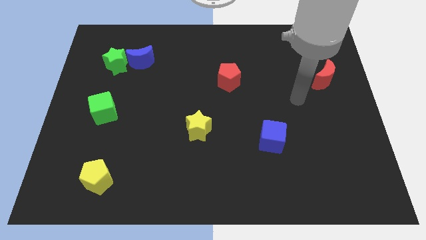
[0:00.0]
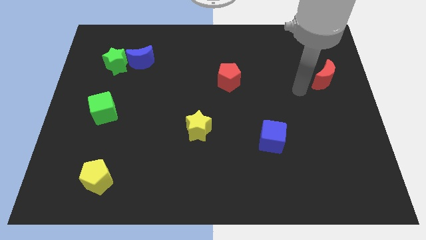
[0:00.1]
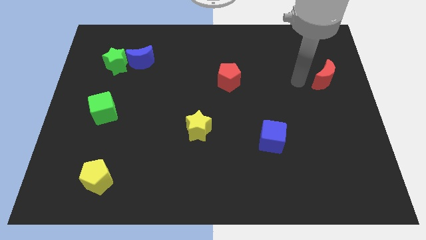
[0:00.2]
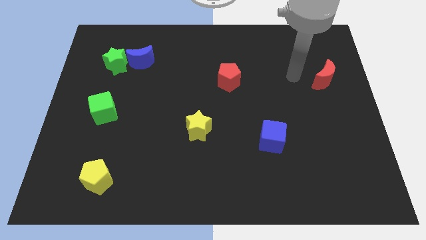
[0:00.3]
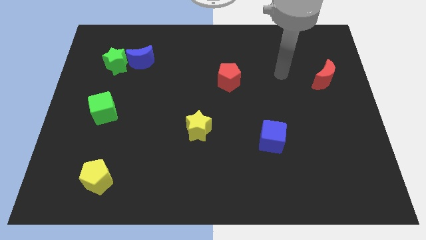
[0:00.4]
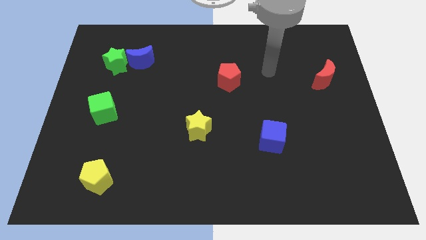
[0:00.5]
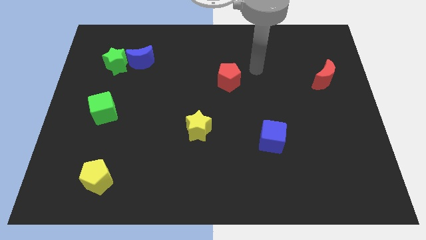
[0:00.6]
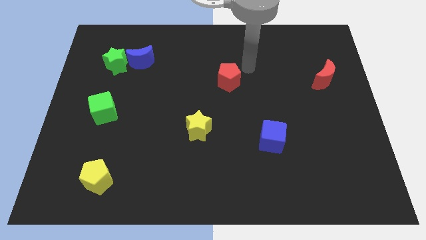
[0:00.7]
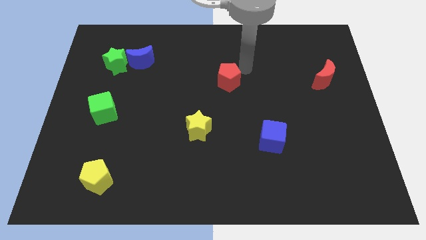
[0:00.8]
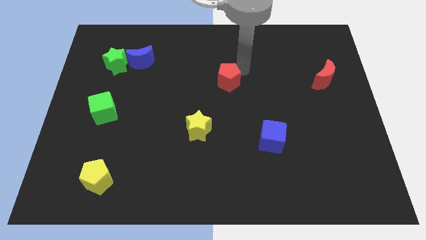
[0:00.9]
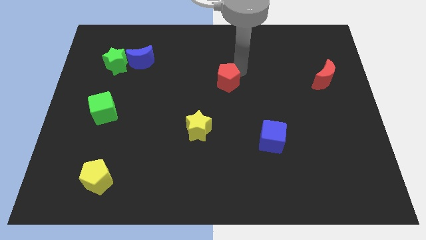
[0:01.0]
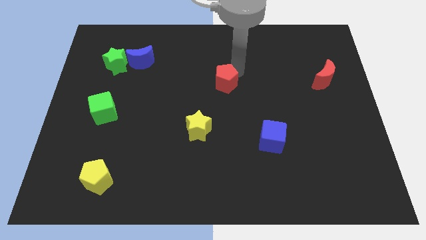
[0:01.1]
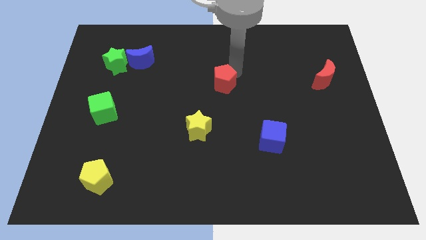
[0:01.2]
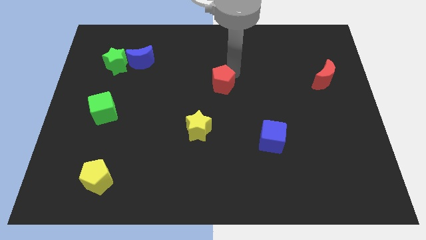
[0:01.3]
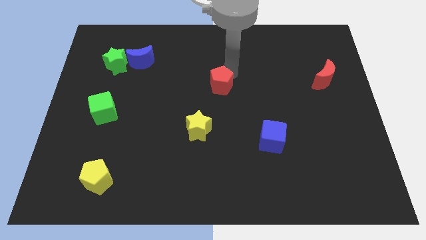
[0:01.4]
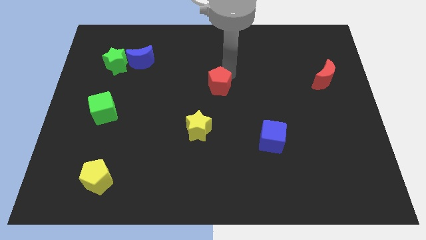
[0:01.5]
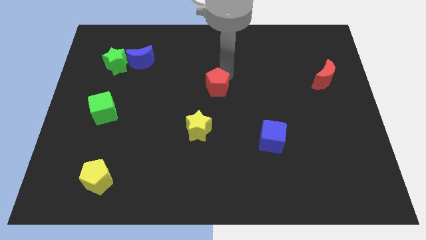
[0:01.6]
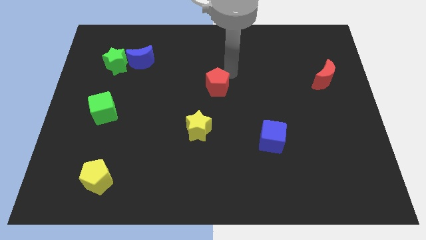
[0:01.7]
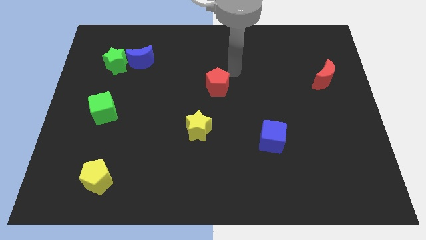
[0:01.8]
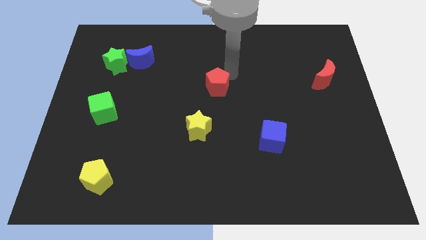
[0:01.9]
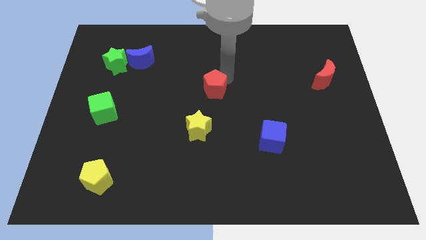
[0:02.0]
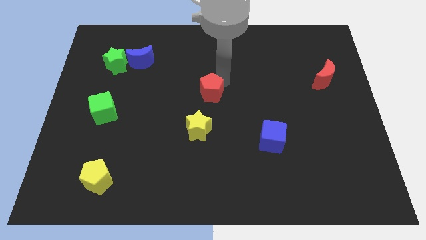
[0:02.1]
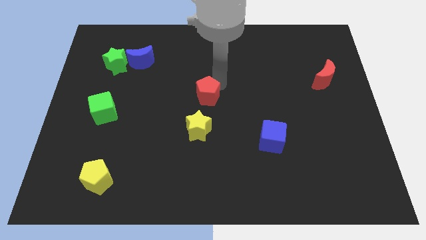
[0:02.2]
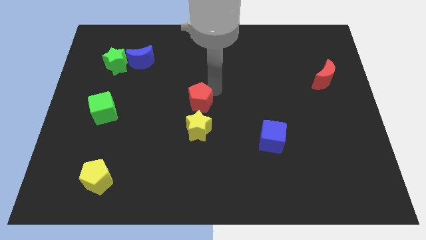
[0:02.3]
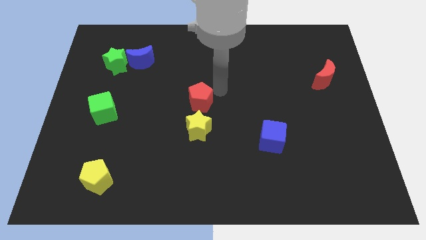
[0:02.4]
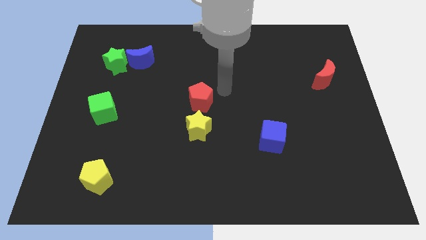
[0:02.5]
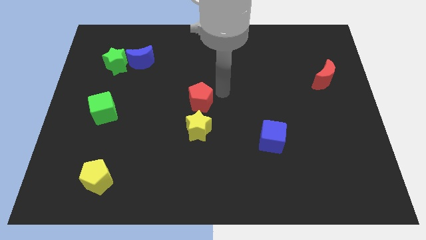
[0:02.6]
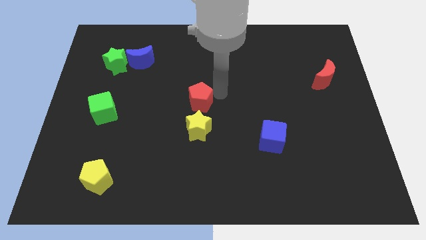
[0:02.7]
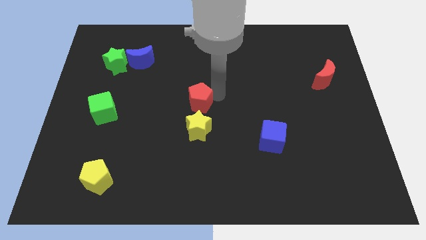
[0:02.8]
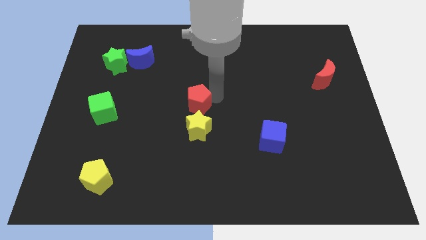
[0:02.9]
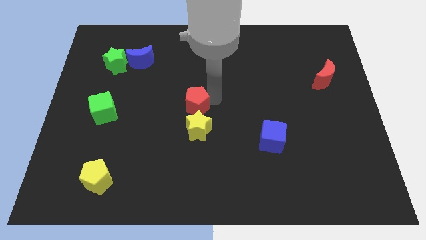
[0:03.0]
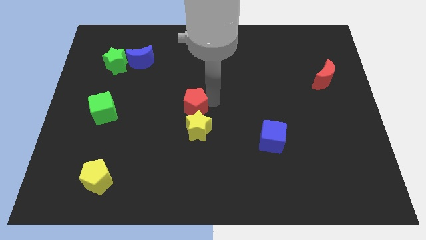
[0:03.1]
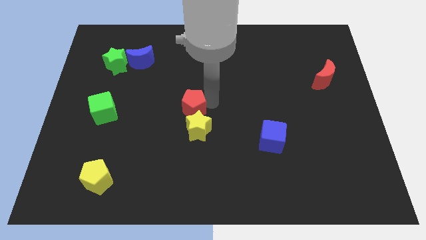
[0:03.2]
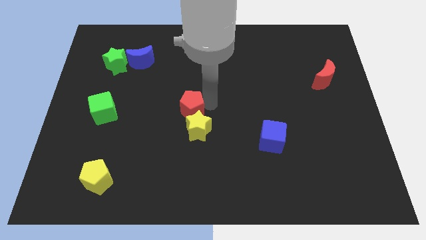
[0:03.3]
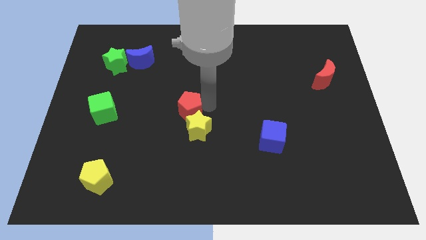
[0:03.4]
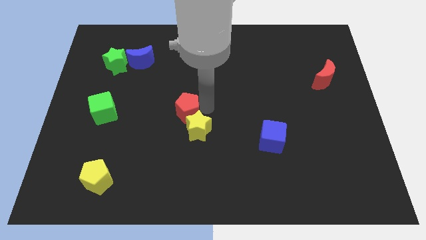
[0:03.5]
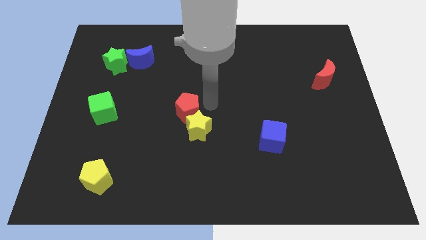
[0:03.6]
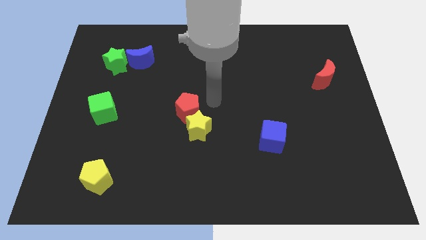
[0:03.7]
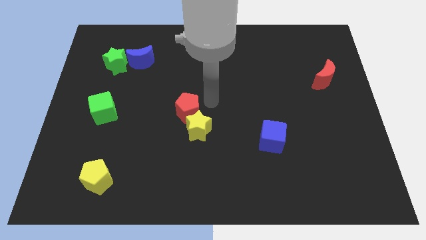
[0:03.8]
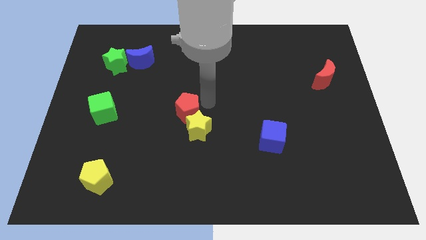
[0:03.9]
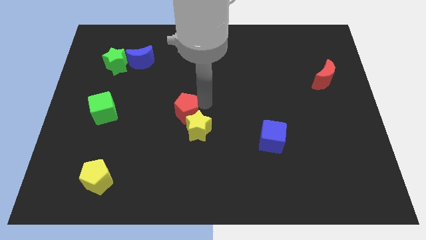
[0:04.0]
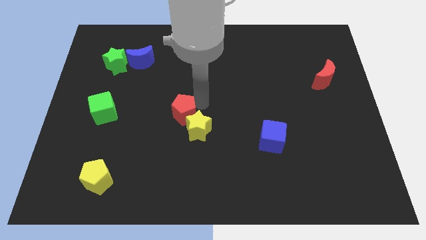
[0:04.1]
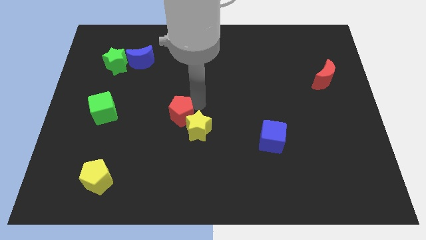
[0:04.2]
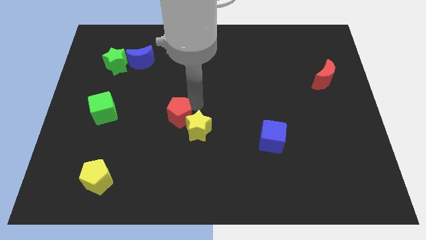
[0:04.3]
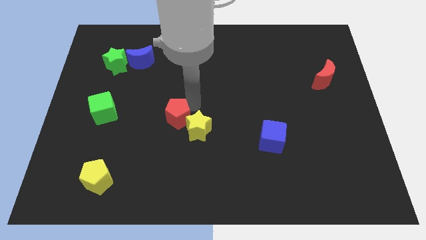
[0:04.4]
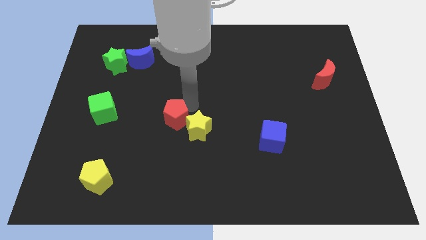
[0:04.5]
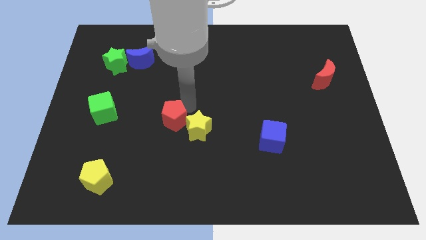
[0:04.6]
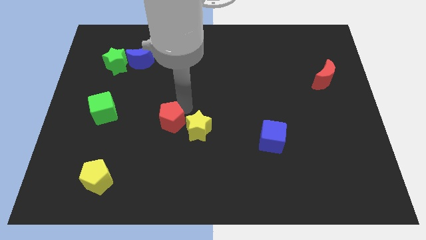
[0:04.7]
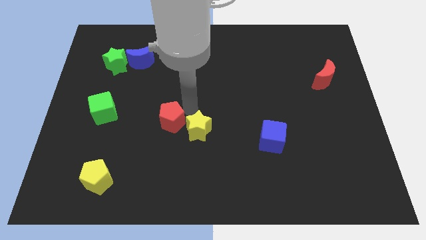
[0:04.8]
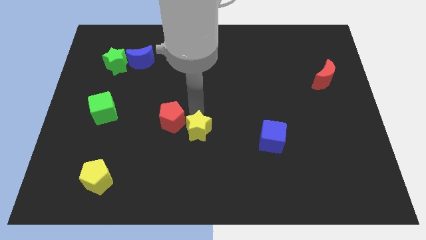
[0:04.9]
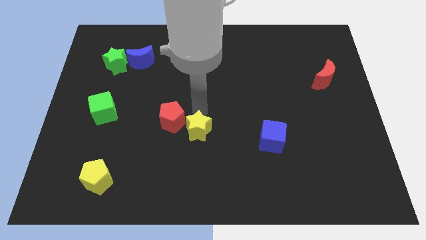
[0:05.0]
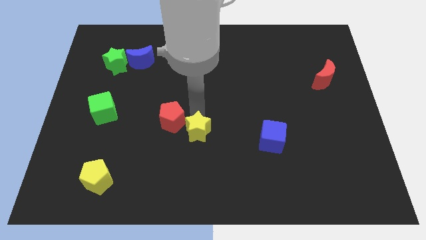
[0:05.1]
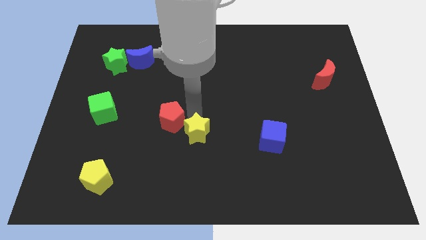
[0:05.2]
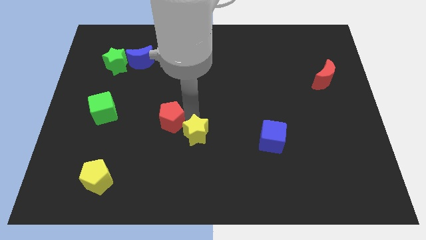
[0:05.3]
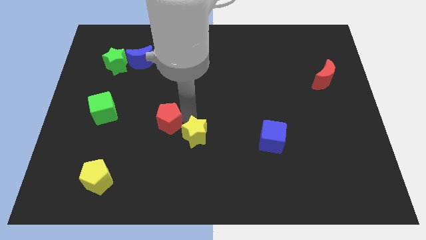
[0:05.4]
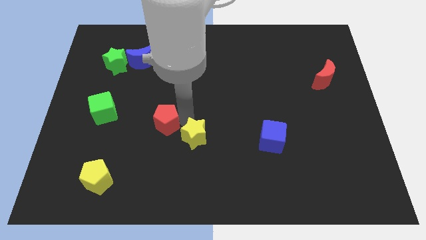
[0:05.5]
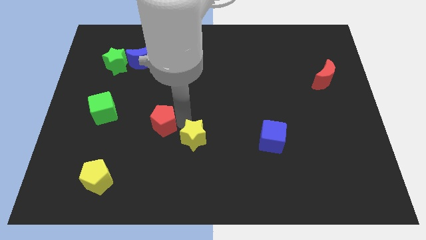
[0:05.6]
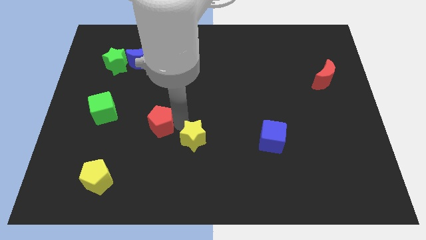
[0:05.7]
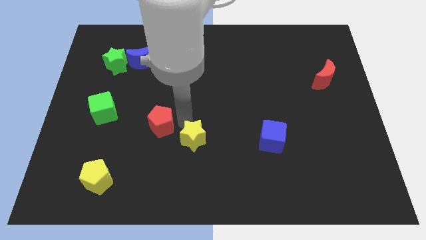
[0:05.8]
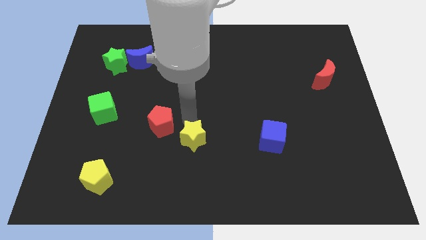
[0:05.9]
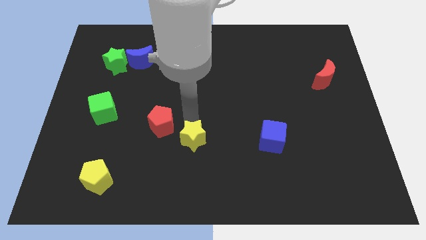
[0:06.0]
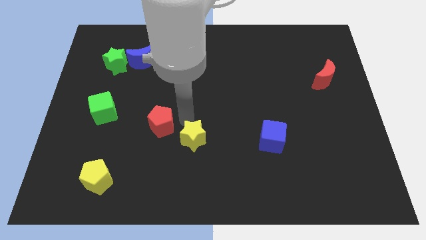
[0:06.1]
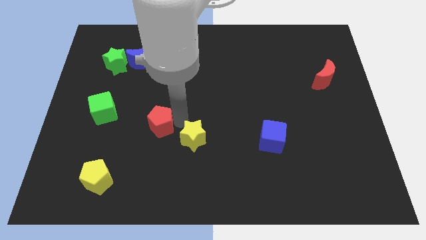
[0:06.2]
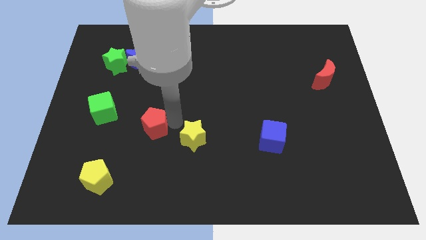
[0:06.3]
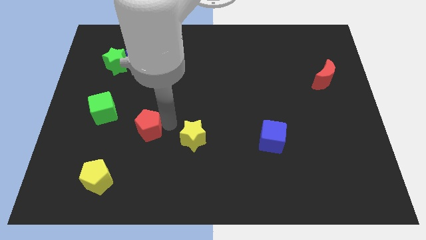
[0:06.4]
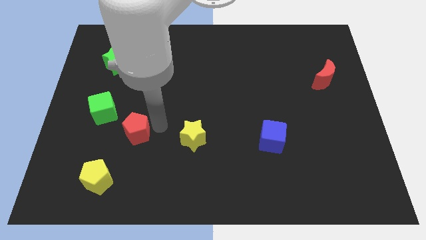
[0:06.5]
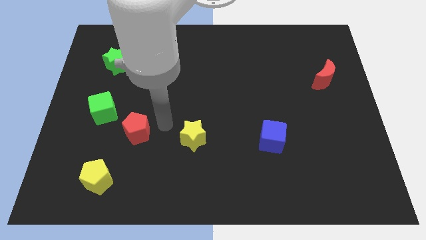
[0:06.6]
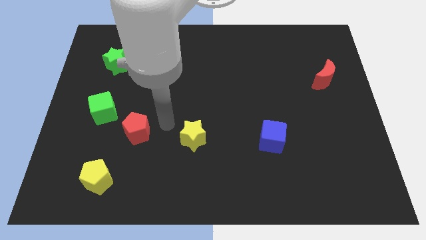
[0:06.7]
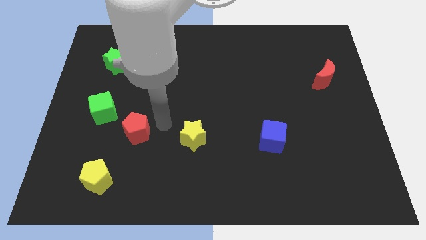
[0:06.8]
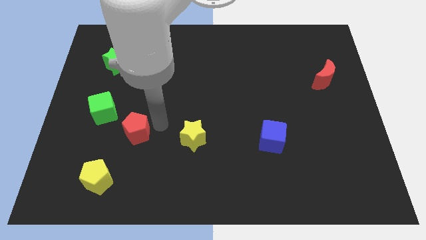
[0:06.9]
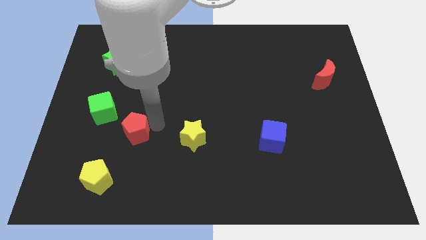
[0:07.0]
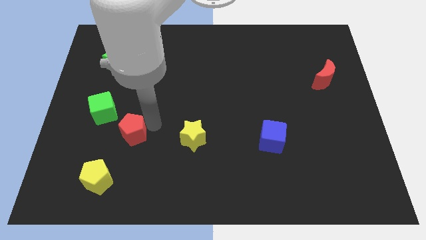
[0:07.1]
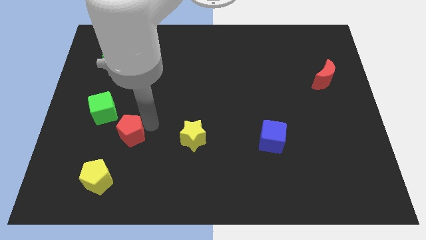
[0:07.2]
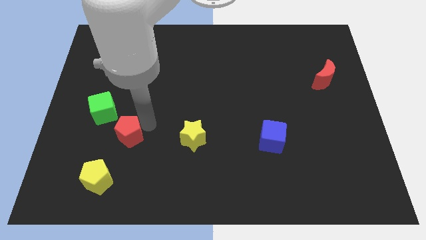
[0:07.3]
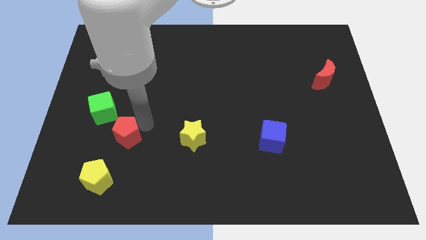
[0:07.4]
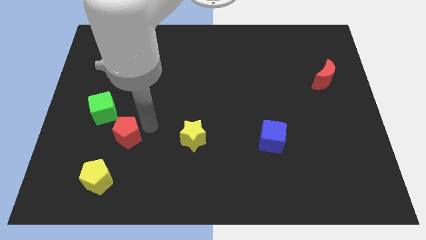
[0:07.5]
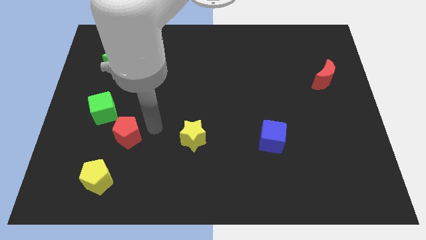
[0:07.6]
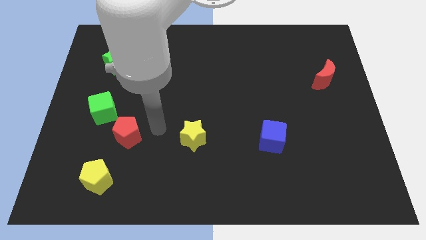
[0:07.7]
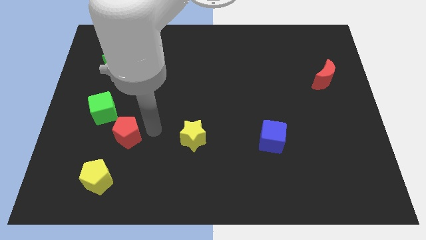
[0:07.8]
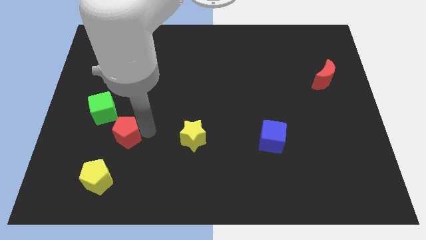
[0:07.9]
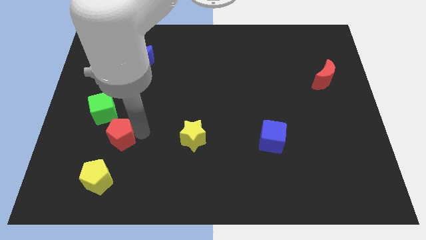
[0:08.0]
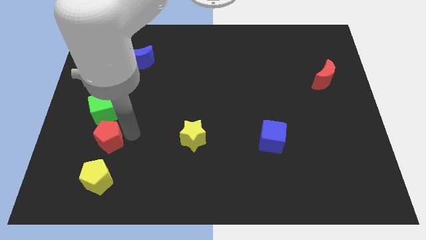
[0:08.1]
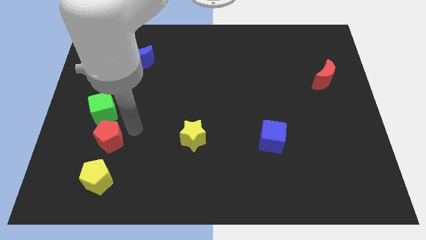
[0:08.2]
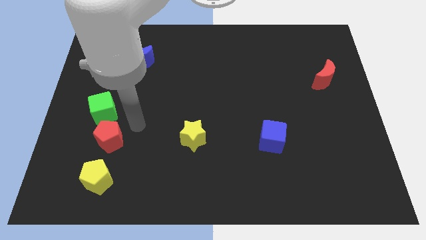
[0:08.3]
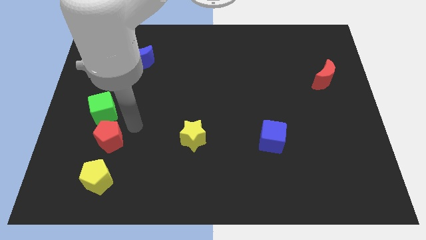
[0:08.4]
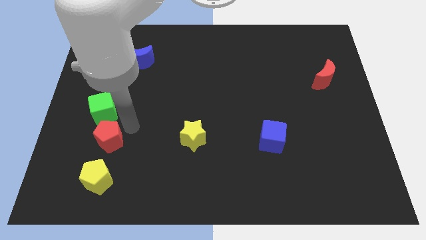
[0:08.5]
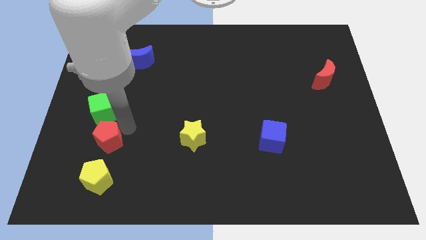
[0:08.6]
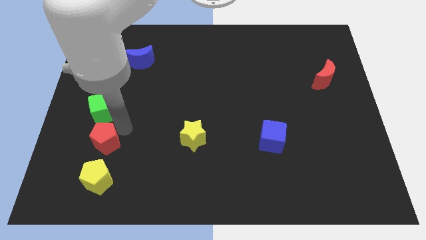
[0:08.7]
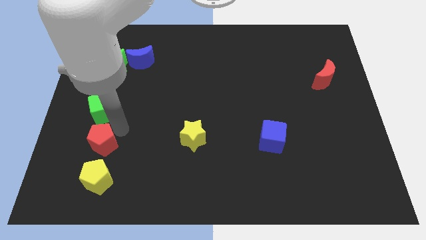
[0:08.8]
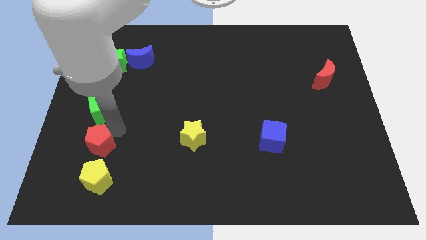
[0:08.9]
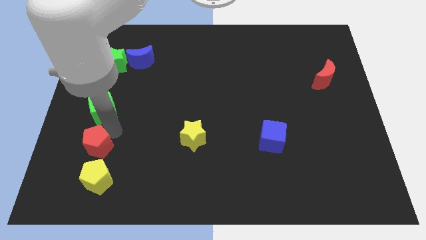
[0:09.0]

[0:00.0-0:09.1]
move the red pentagon to the top left of the yellow pentagon
